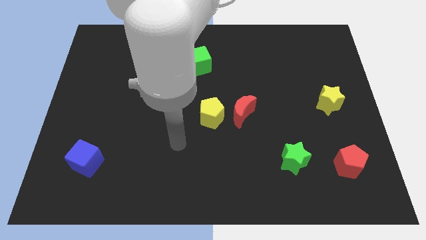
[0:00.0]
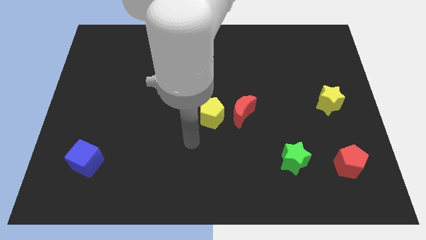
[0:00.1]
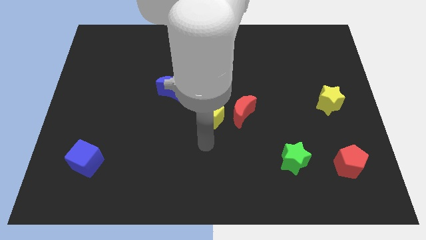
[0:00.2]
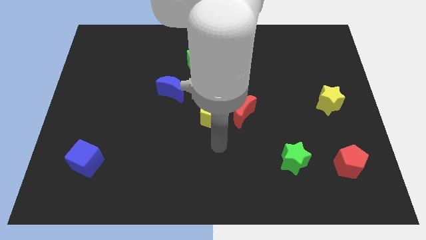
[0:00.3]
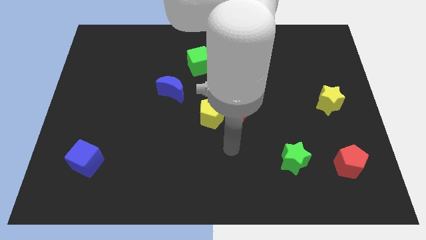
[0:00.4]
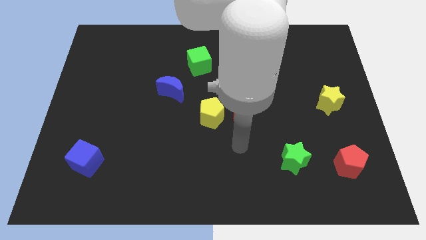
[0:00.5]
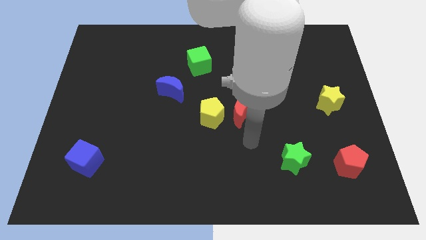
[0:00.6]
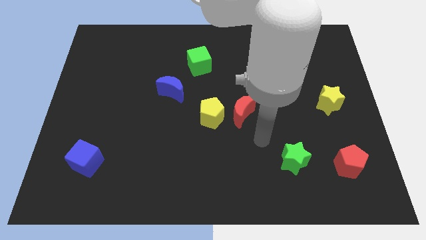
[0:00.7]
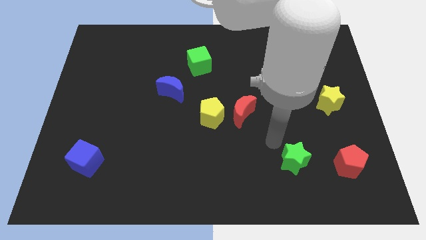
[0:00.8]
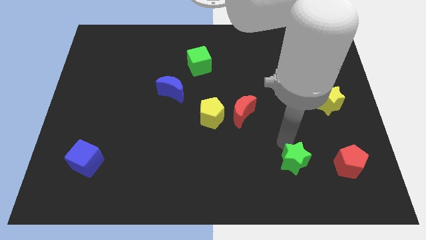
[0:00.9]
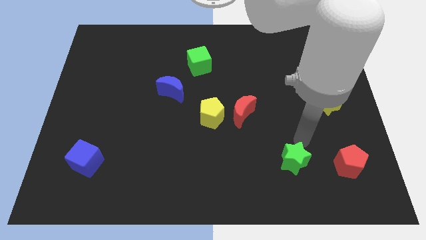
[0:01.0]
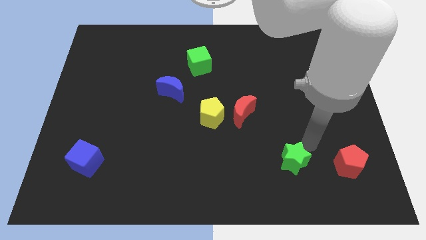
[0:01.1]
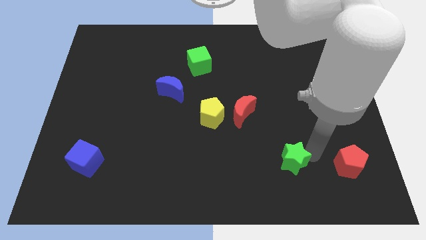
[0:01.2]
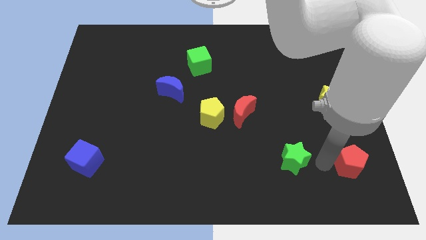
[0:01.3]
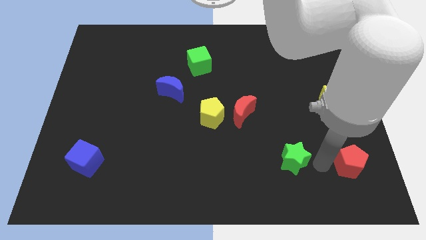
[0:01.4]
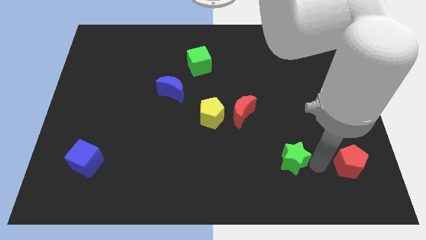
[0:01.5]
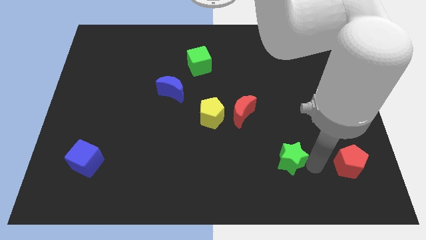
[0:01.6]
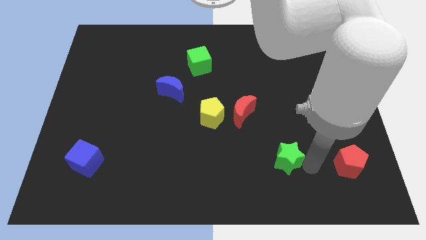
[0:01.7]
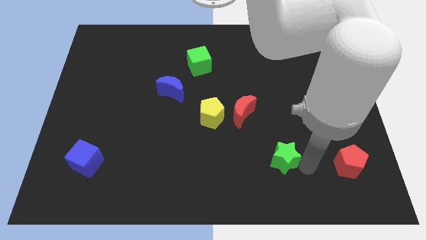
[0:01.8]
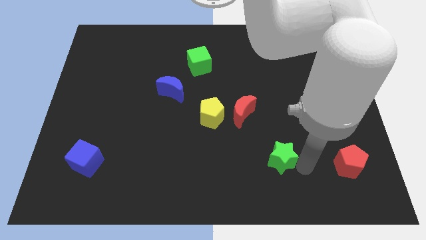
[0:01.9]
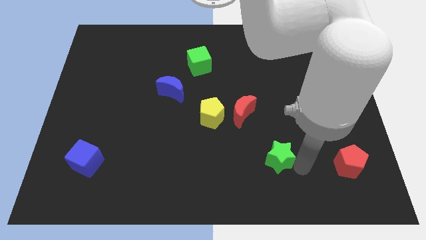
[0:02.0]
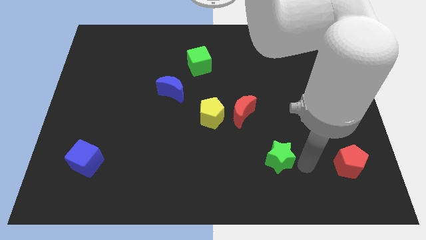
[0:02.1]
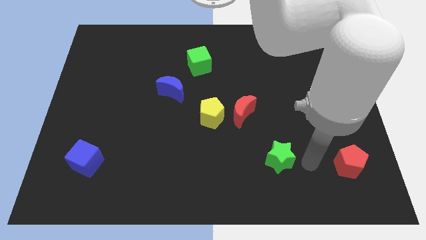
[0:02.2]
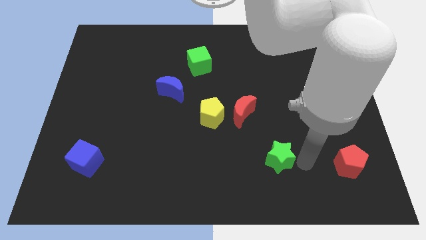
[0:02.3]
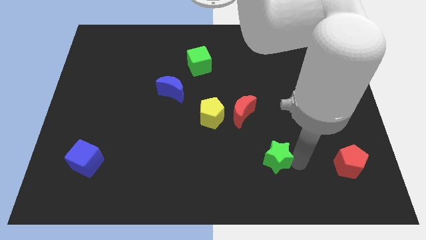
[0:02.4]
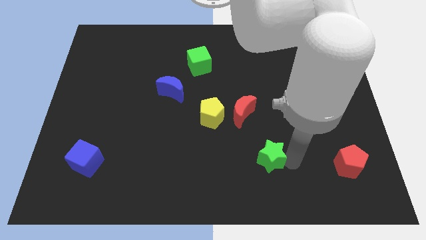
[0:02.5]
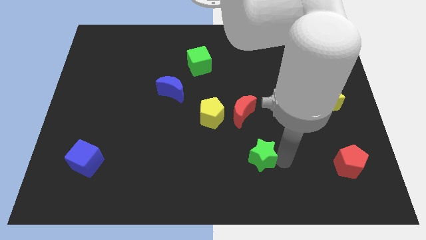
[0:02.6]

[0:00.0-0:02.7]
slightly move the green star to the left

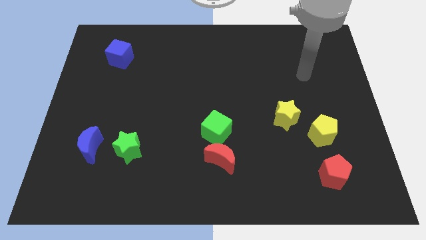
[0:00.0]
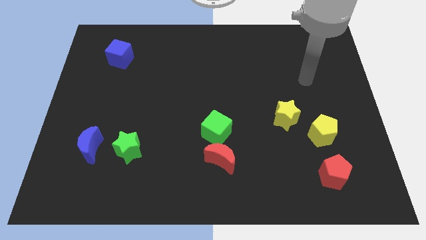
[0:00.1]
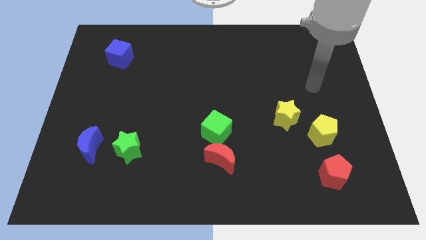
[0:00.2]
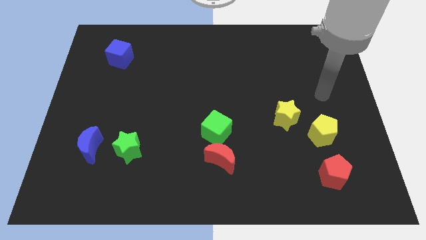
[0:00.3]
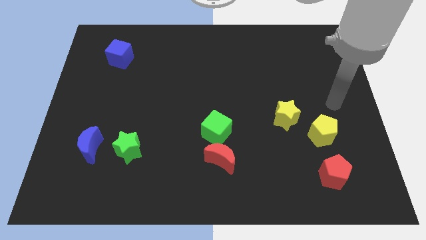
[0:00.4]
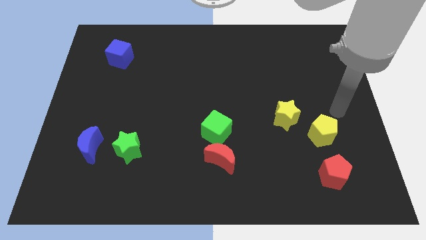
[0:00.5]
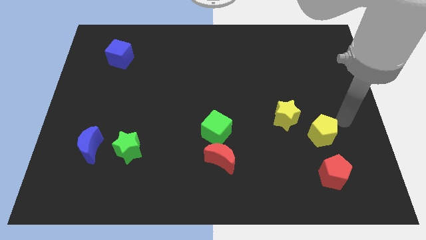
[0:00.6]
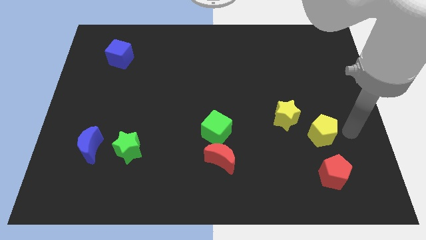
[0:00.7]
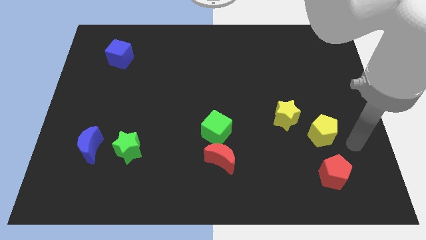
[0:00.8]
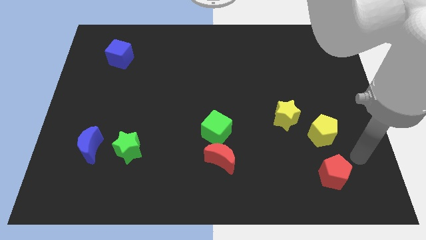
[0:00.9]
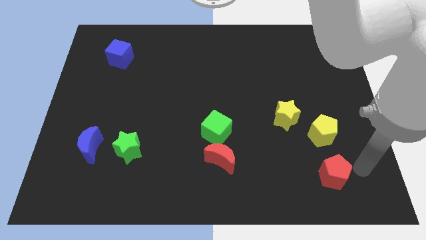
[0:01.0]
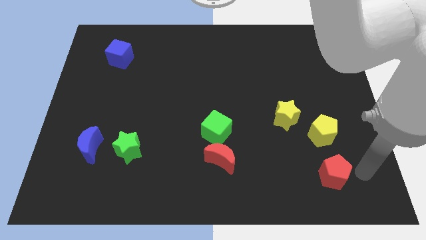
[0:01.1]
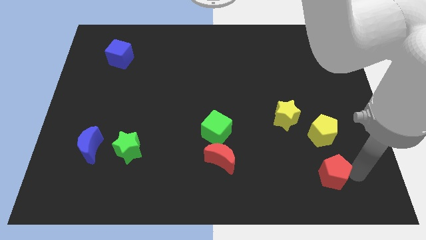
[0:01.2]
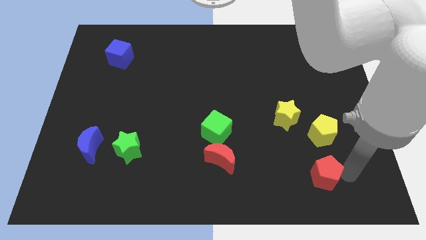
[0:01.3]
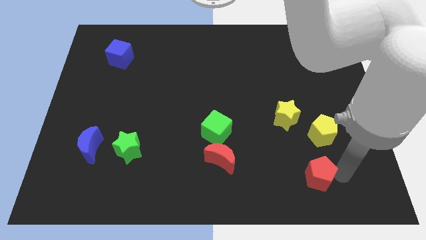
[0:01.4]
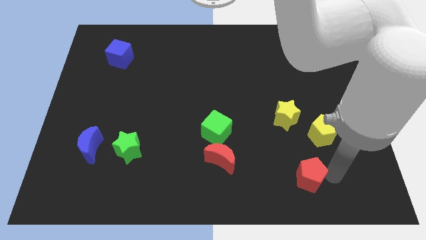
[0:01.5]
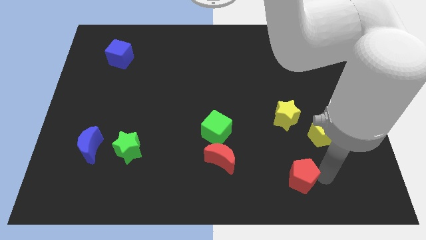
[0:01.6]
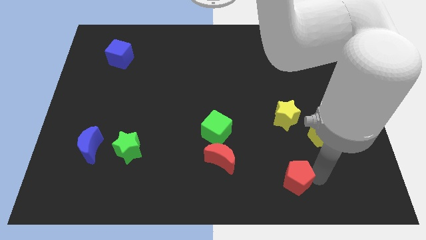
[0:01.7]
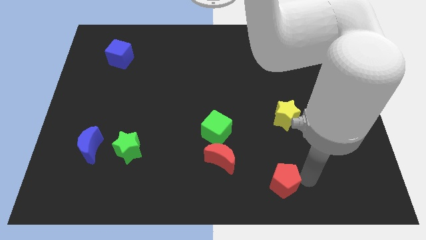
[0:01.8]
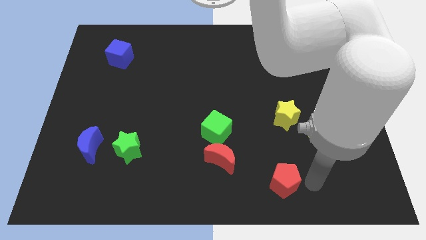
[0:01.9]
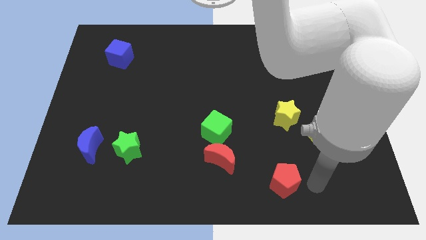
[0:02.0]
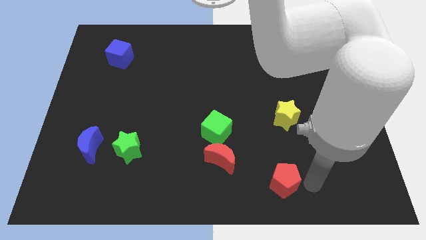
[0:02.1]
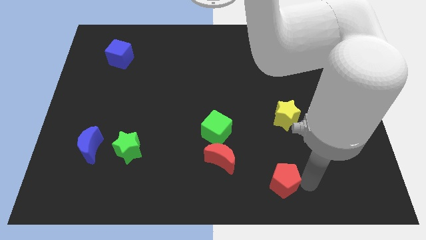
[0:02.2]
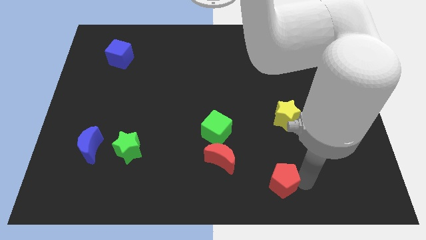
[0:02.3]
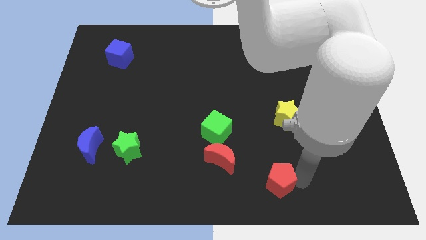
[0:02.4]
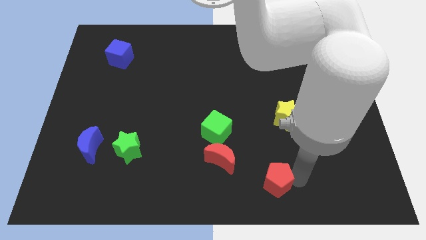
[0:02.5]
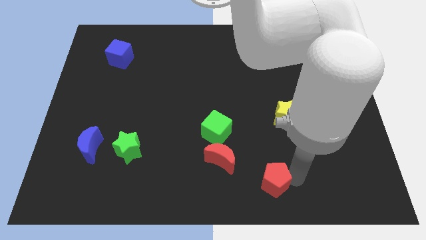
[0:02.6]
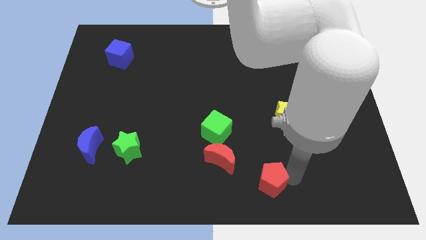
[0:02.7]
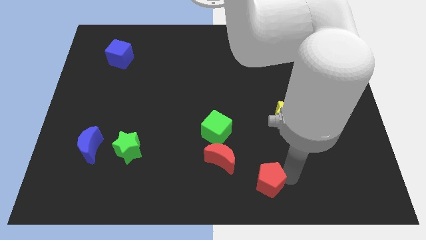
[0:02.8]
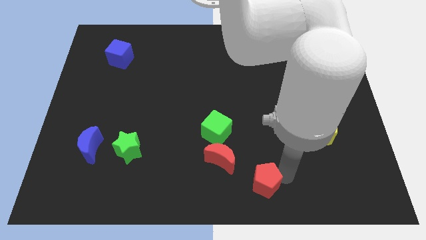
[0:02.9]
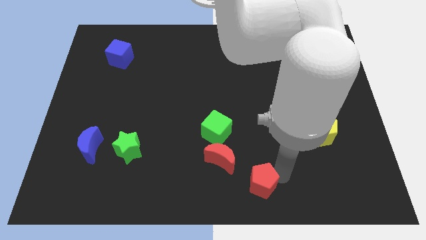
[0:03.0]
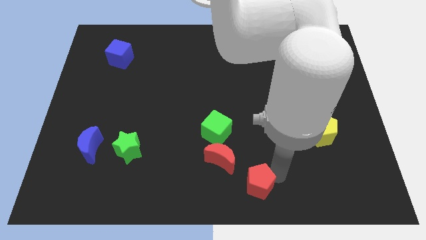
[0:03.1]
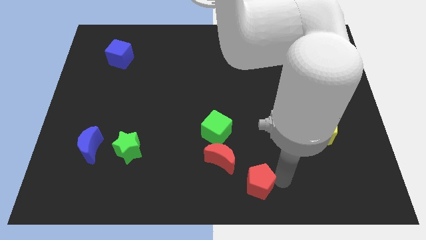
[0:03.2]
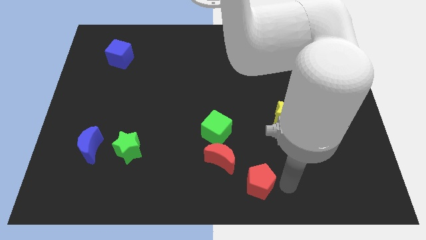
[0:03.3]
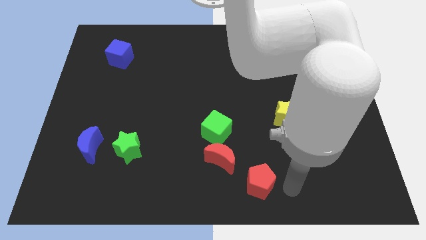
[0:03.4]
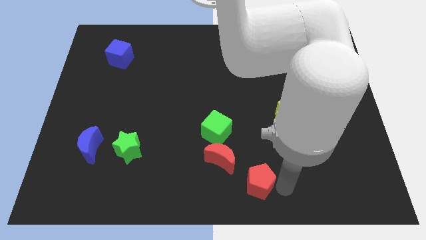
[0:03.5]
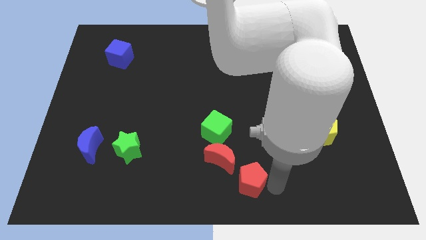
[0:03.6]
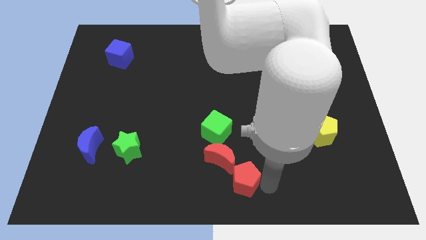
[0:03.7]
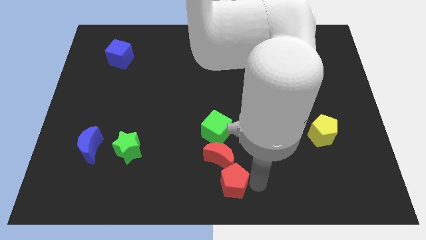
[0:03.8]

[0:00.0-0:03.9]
move the red pentagon left

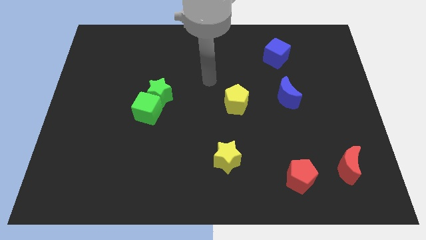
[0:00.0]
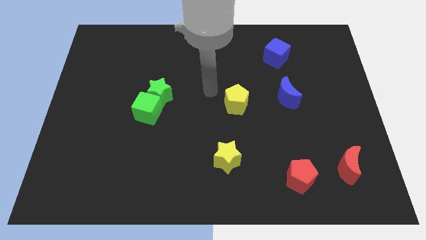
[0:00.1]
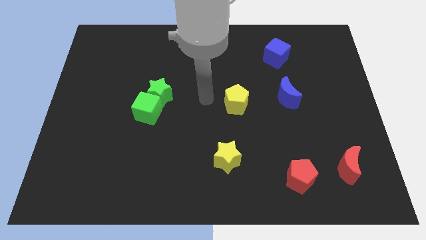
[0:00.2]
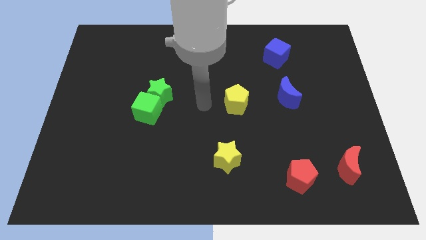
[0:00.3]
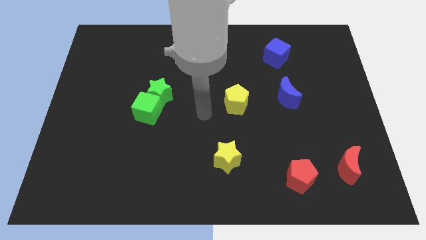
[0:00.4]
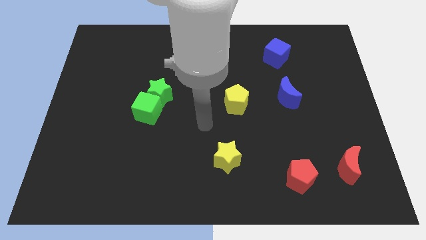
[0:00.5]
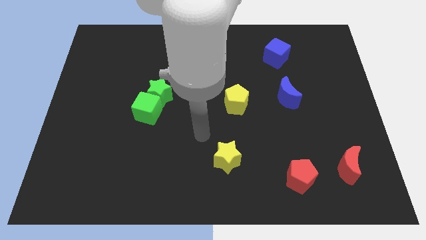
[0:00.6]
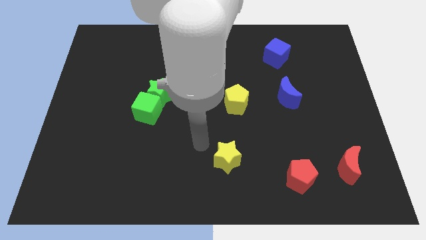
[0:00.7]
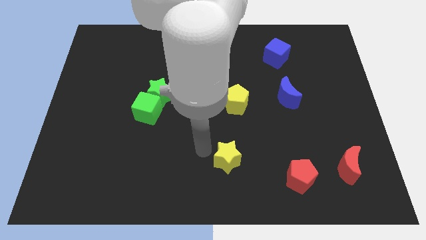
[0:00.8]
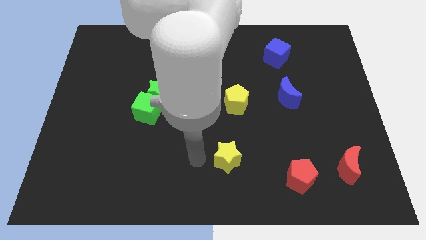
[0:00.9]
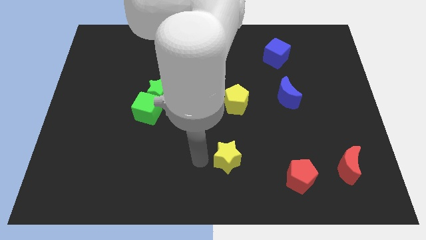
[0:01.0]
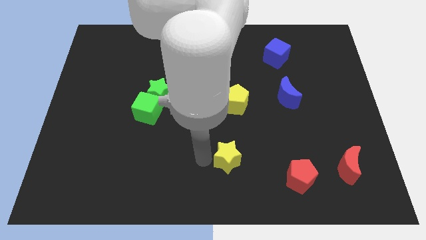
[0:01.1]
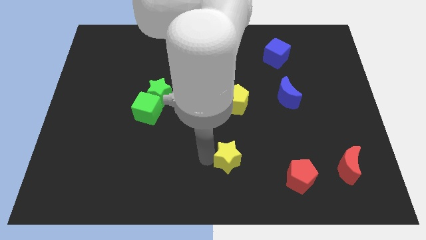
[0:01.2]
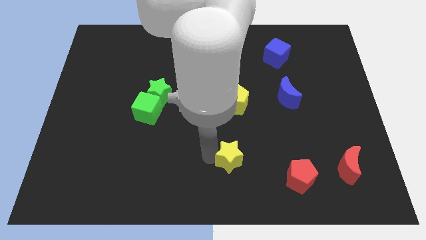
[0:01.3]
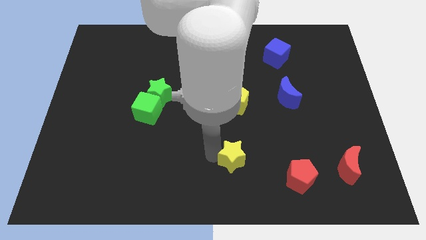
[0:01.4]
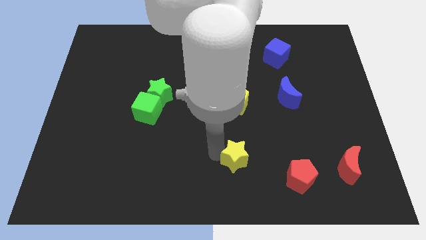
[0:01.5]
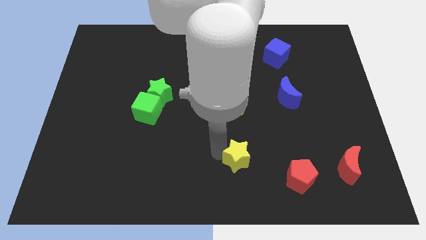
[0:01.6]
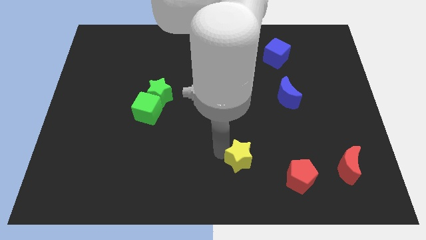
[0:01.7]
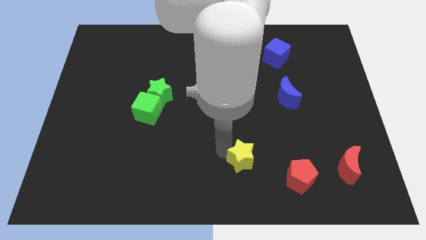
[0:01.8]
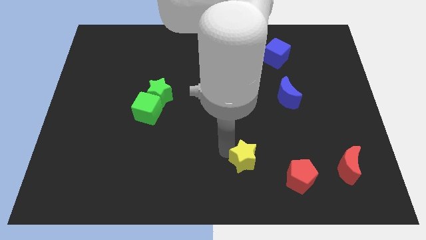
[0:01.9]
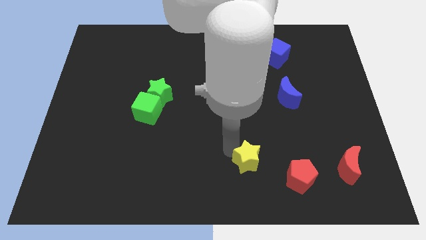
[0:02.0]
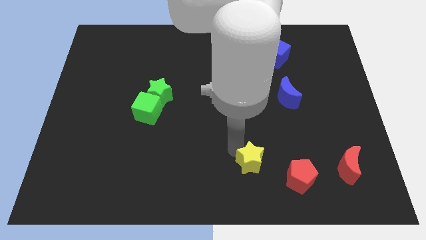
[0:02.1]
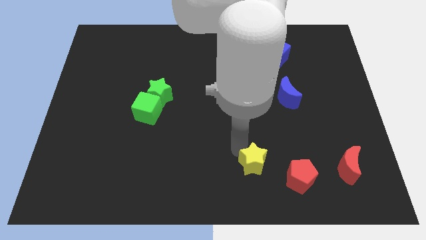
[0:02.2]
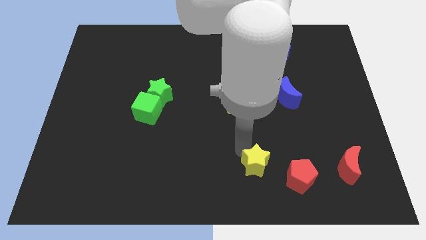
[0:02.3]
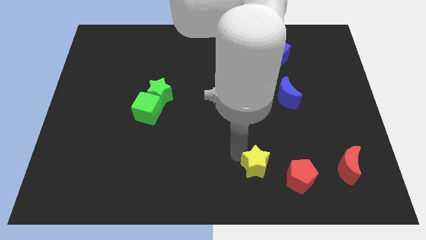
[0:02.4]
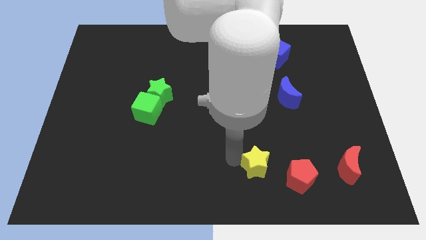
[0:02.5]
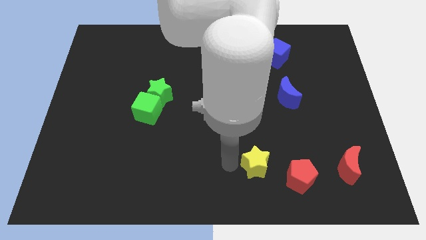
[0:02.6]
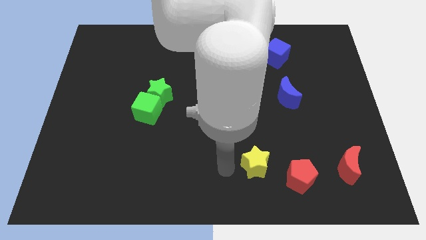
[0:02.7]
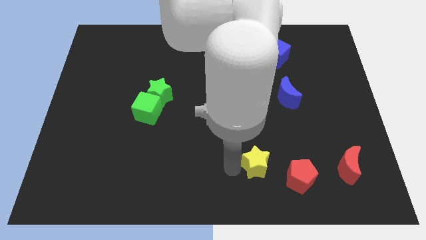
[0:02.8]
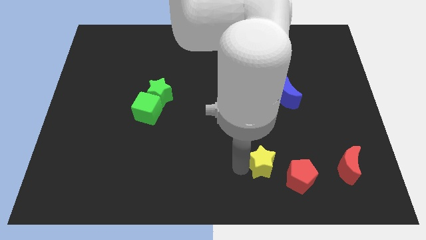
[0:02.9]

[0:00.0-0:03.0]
move the yellow star somewhat to the right
